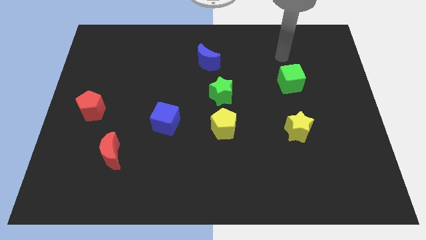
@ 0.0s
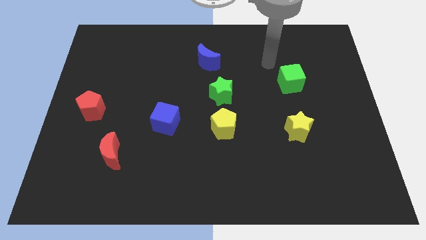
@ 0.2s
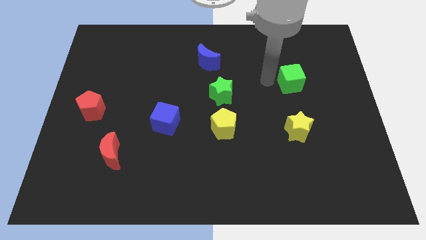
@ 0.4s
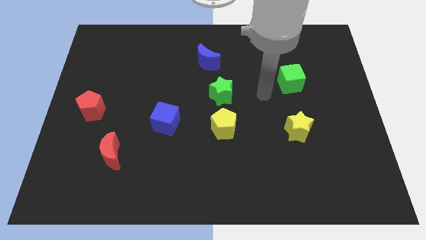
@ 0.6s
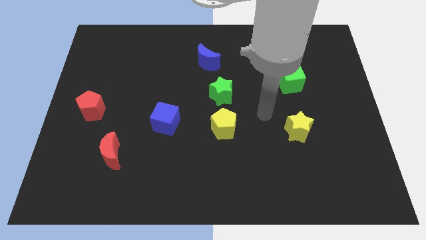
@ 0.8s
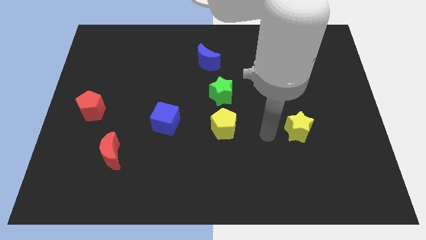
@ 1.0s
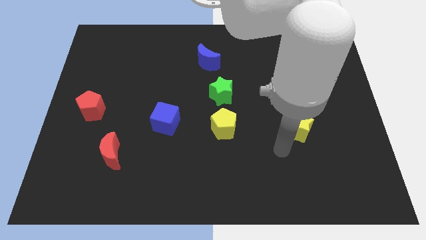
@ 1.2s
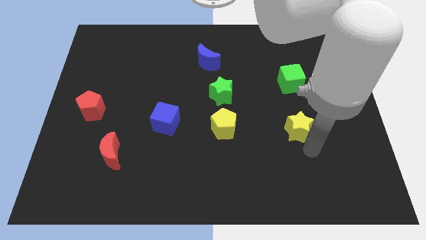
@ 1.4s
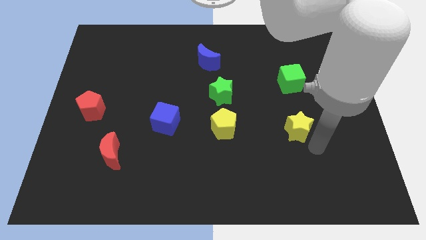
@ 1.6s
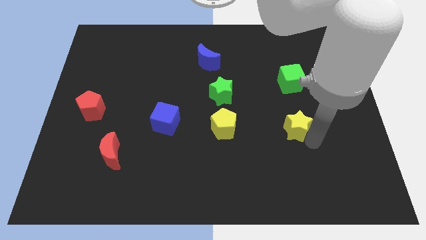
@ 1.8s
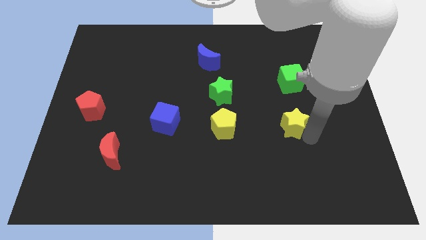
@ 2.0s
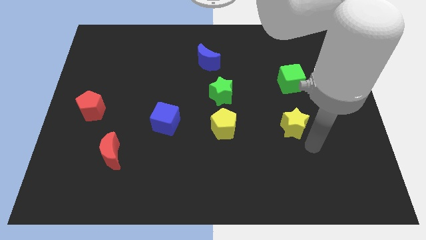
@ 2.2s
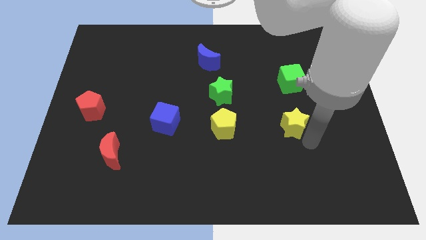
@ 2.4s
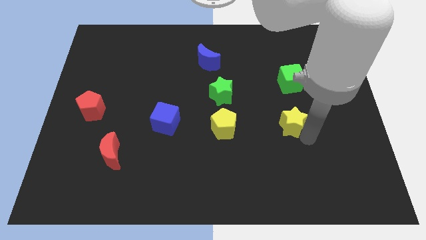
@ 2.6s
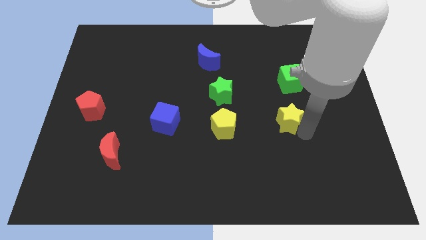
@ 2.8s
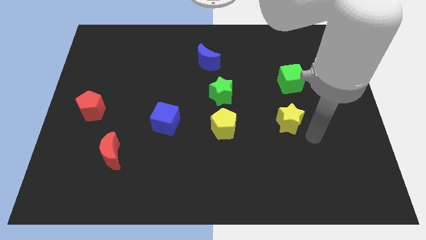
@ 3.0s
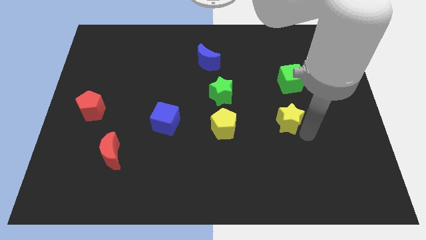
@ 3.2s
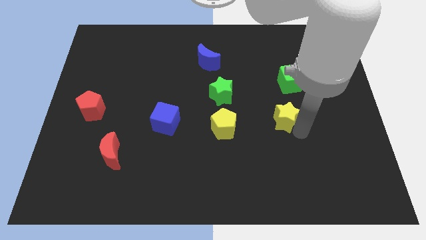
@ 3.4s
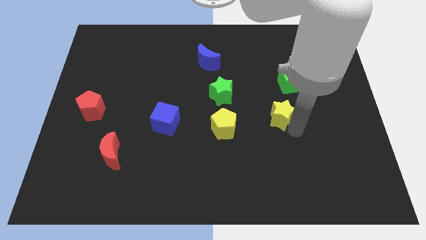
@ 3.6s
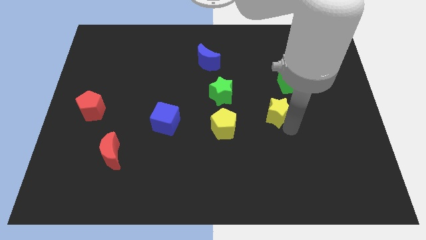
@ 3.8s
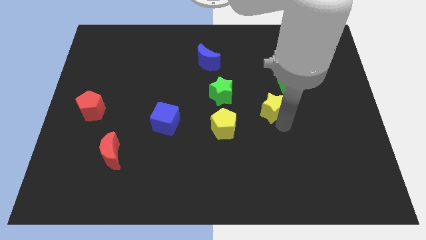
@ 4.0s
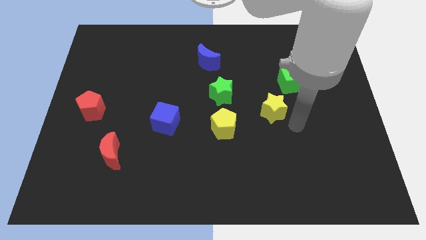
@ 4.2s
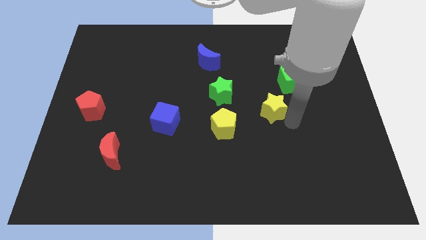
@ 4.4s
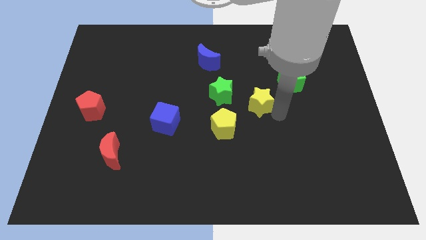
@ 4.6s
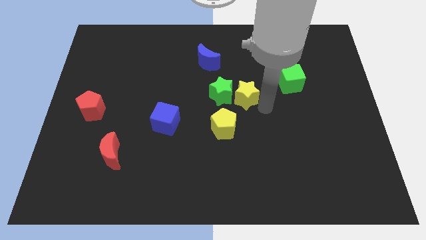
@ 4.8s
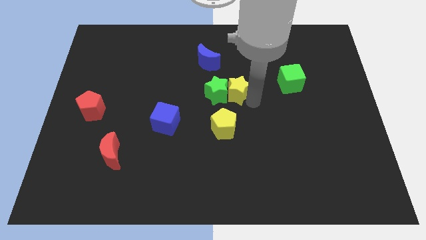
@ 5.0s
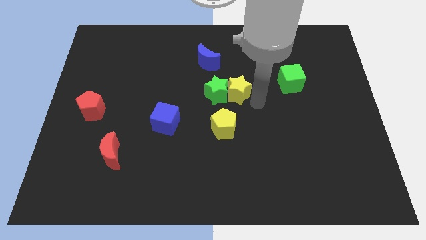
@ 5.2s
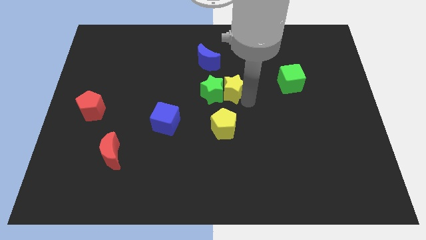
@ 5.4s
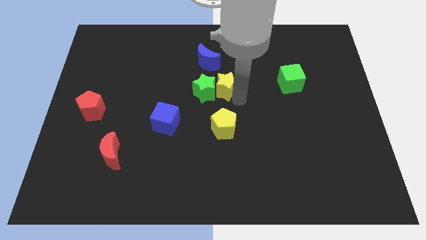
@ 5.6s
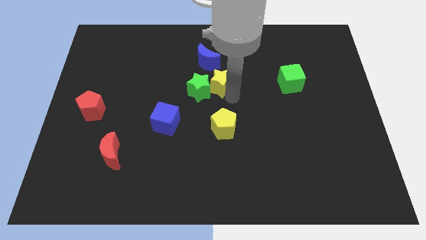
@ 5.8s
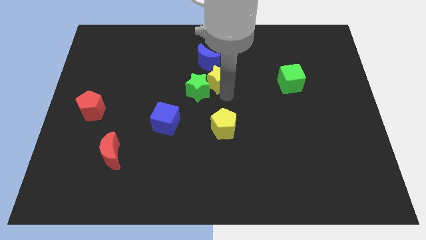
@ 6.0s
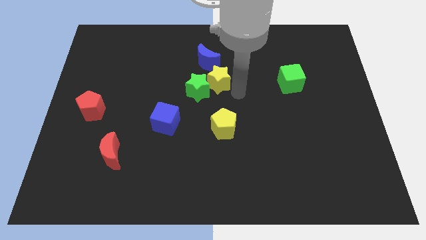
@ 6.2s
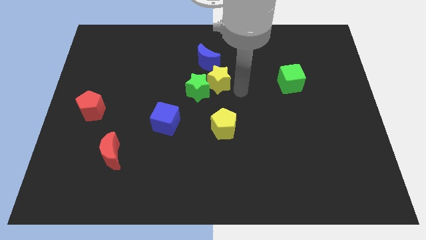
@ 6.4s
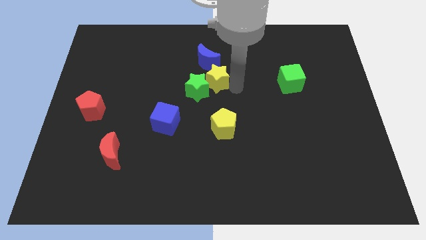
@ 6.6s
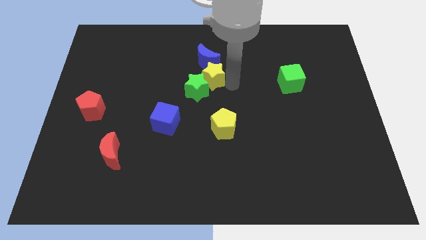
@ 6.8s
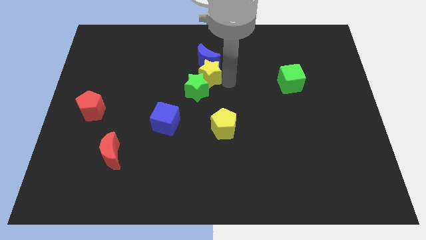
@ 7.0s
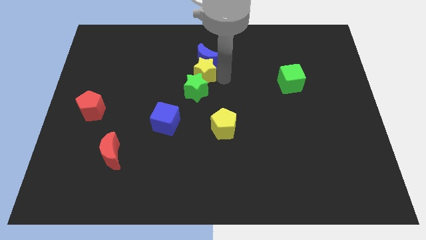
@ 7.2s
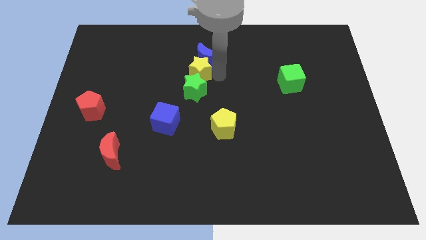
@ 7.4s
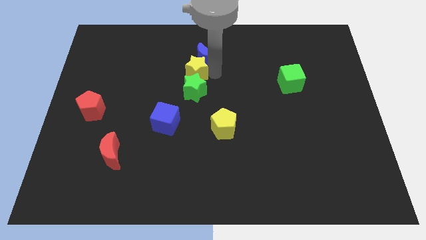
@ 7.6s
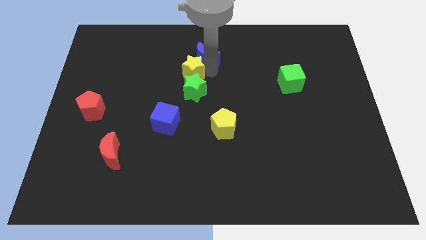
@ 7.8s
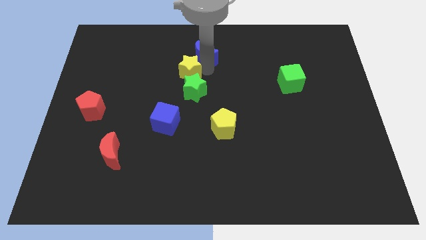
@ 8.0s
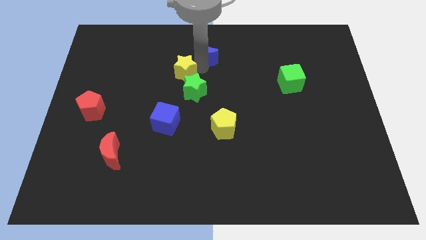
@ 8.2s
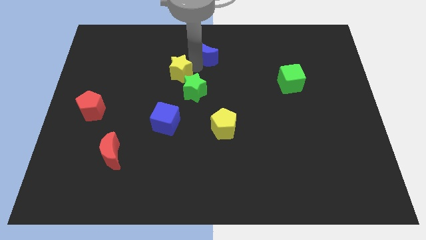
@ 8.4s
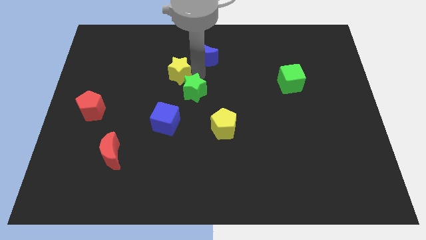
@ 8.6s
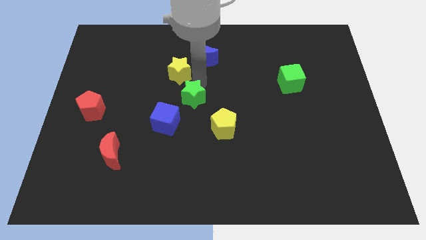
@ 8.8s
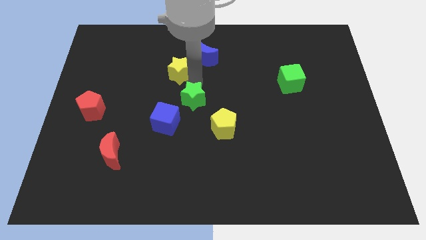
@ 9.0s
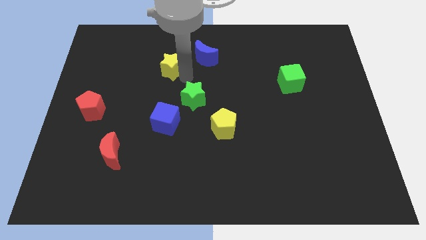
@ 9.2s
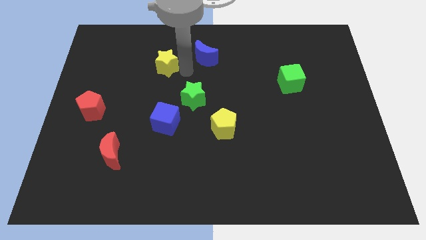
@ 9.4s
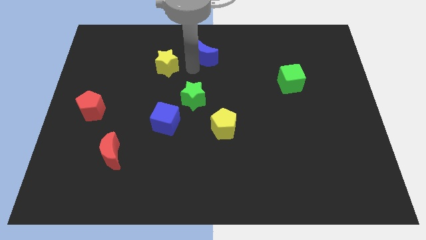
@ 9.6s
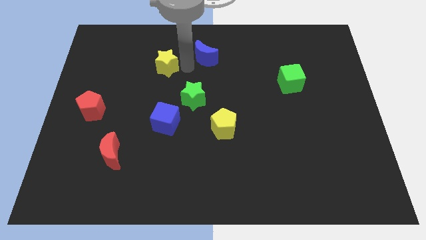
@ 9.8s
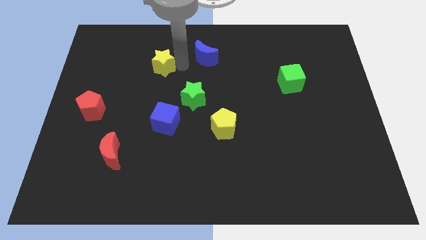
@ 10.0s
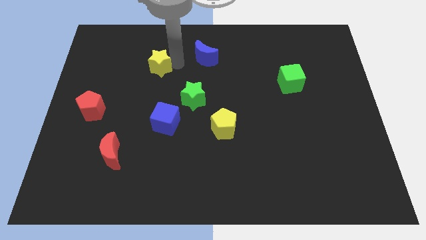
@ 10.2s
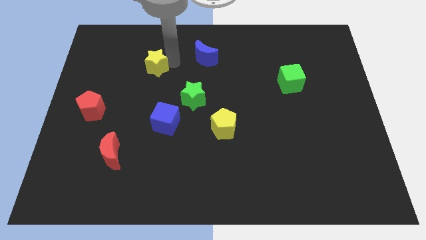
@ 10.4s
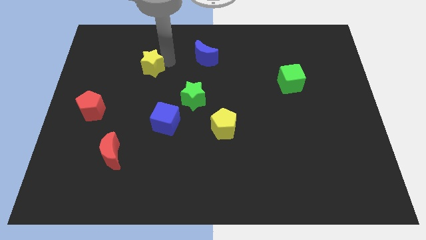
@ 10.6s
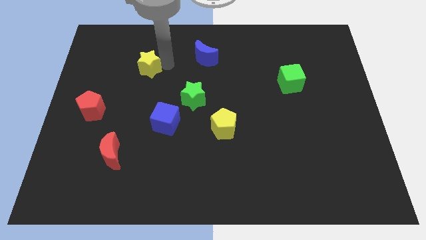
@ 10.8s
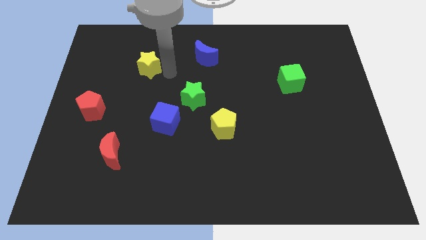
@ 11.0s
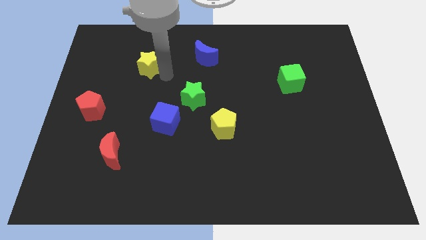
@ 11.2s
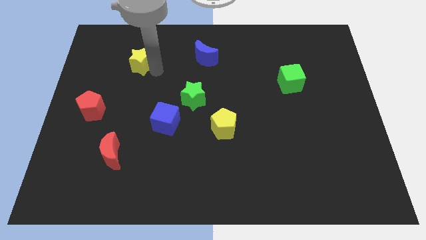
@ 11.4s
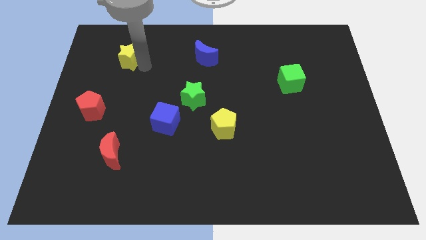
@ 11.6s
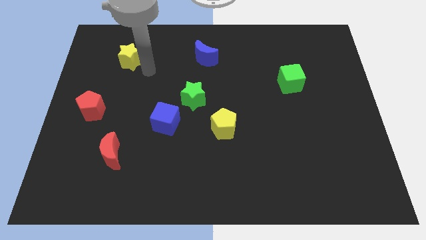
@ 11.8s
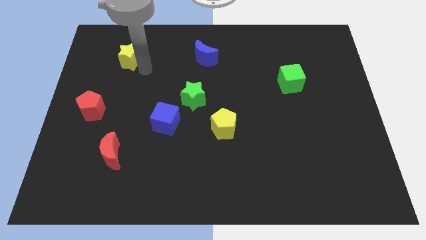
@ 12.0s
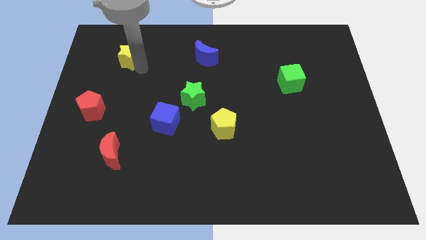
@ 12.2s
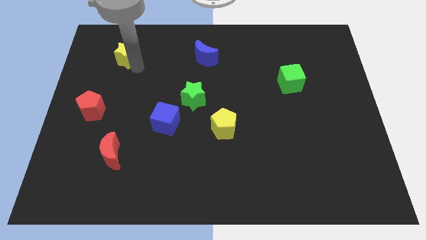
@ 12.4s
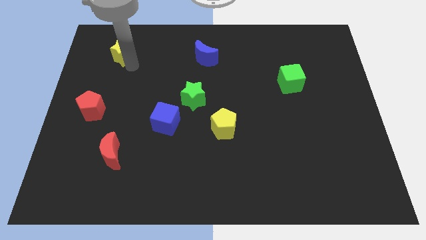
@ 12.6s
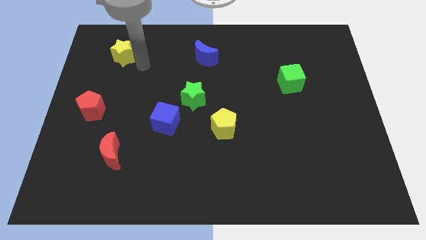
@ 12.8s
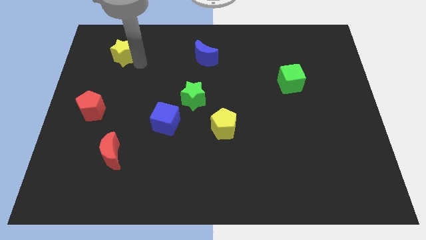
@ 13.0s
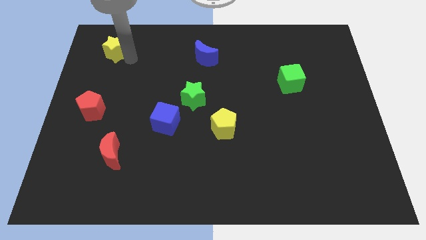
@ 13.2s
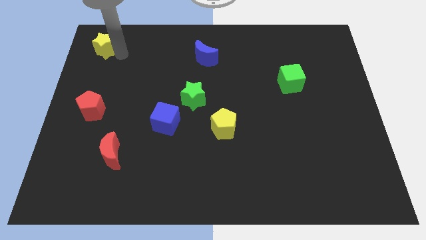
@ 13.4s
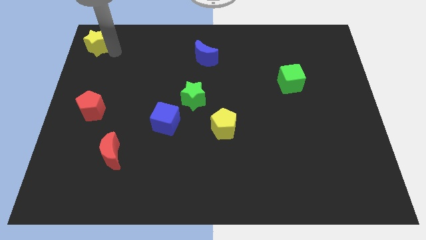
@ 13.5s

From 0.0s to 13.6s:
push the yellow star to the top left of the board

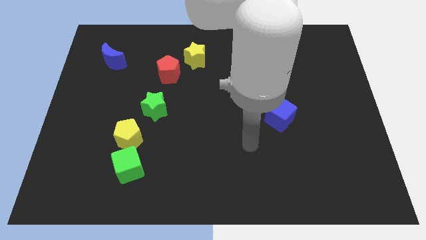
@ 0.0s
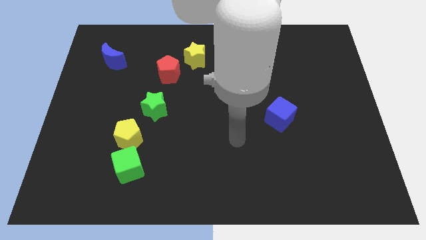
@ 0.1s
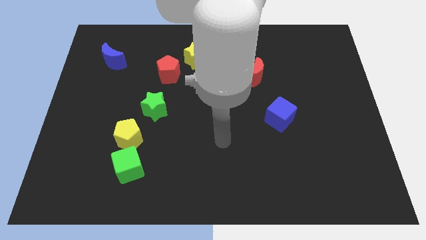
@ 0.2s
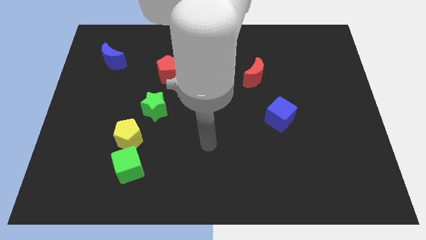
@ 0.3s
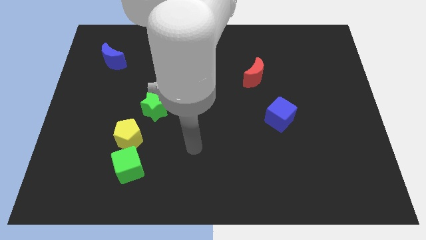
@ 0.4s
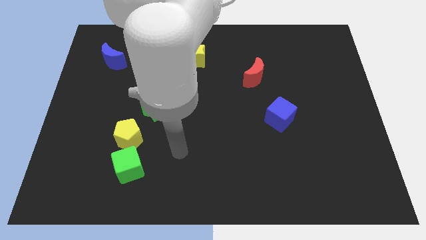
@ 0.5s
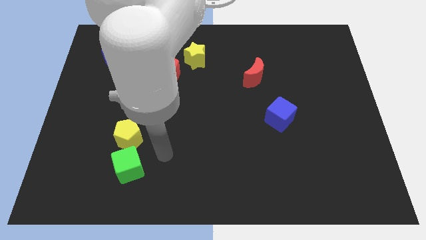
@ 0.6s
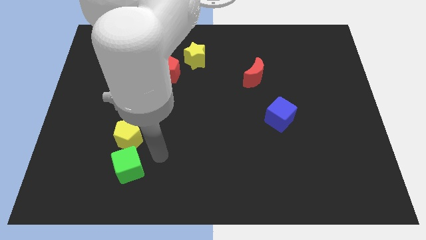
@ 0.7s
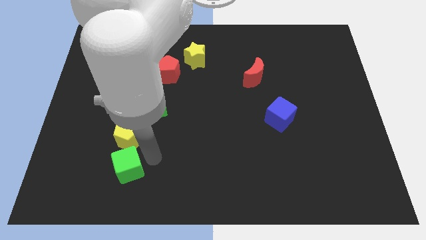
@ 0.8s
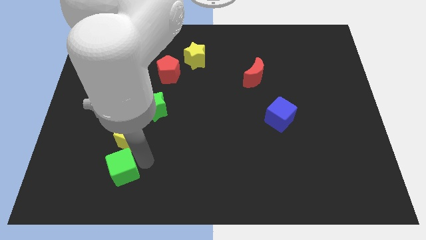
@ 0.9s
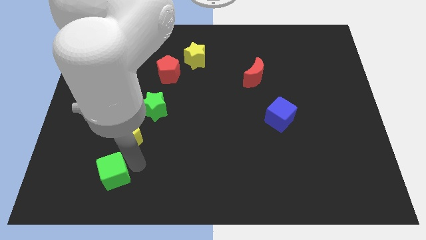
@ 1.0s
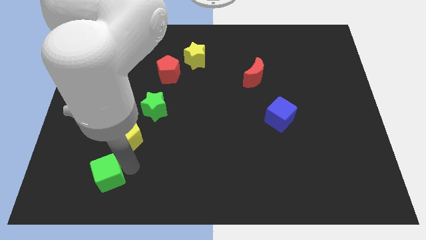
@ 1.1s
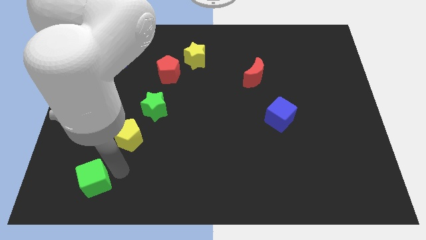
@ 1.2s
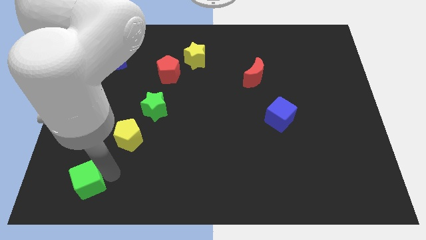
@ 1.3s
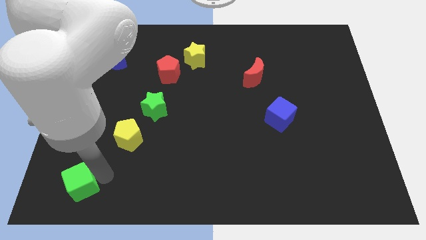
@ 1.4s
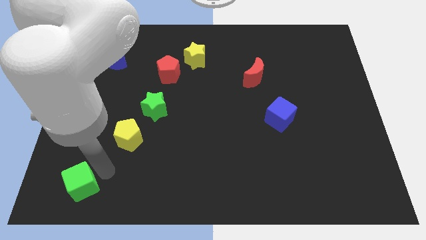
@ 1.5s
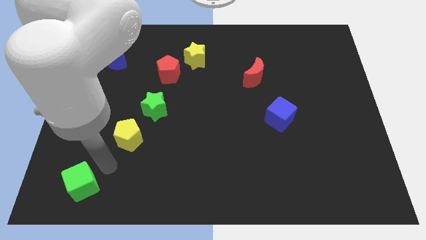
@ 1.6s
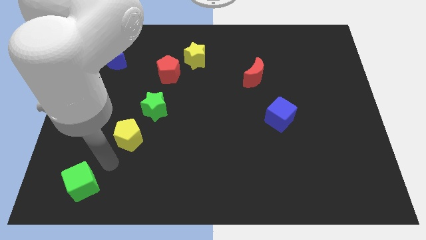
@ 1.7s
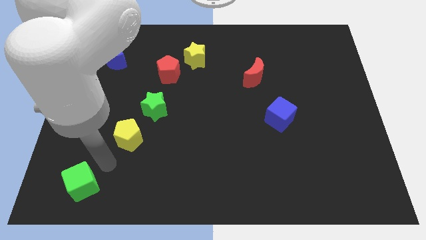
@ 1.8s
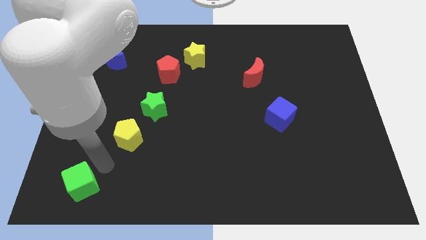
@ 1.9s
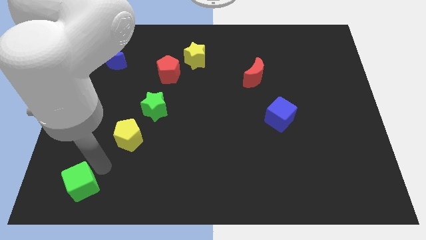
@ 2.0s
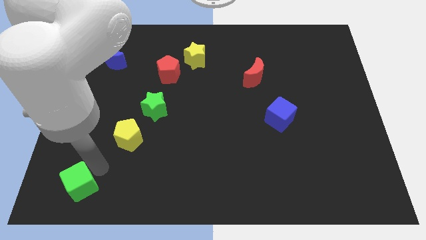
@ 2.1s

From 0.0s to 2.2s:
put the green cube to the lower left corner
